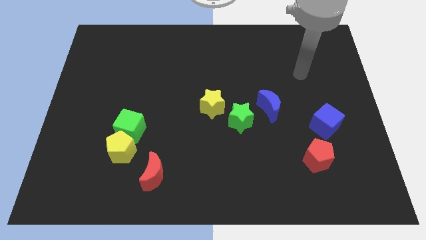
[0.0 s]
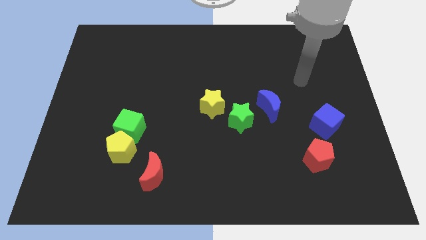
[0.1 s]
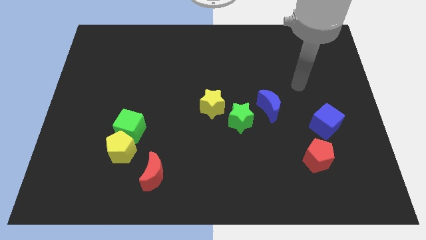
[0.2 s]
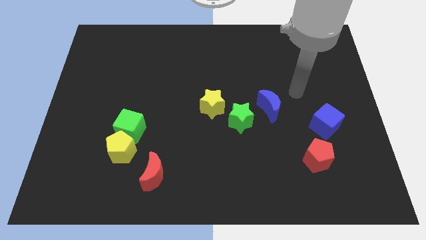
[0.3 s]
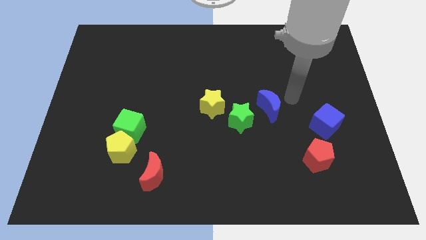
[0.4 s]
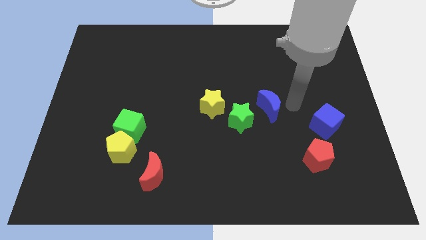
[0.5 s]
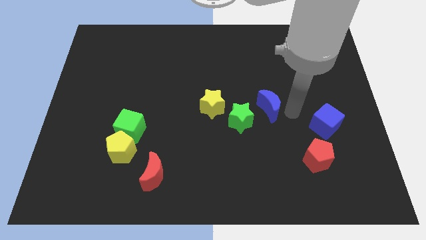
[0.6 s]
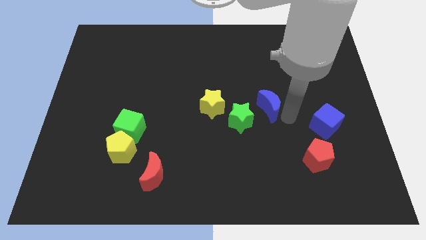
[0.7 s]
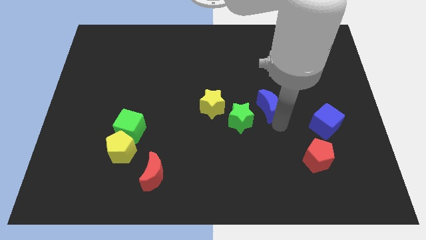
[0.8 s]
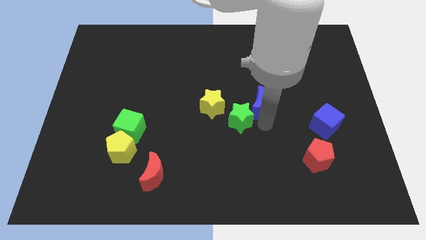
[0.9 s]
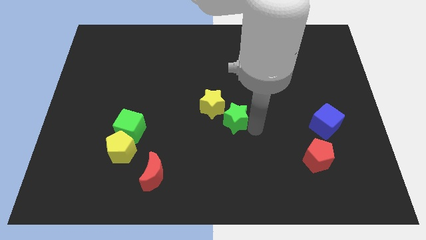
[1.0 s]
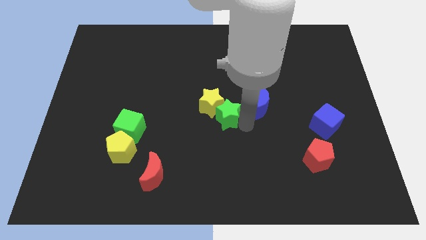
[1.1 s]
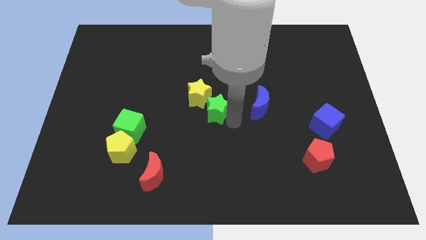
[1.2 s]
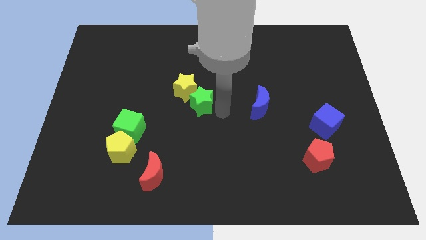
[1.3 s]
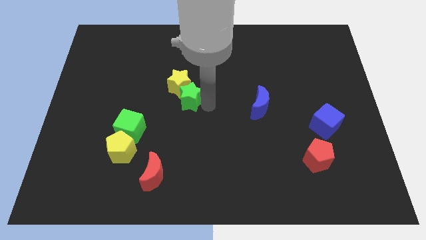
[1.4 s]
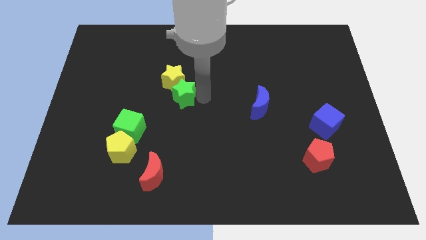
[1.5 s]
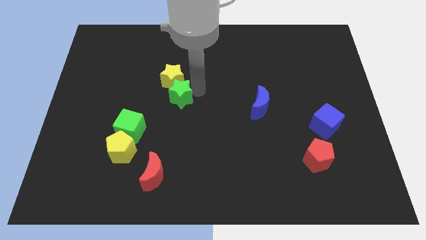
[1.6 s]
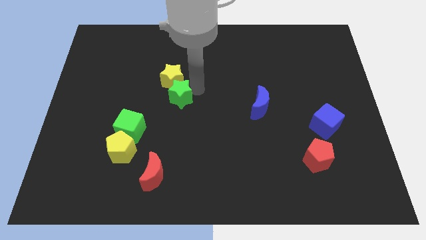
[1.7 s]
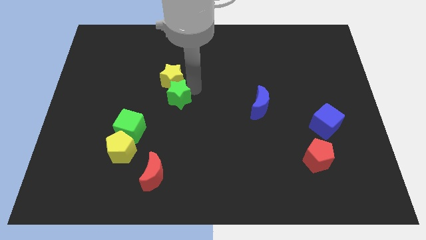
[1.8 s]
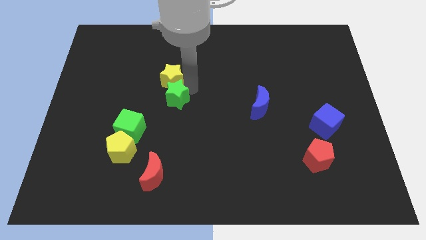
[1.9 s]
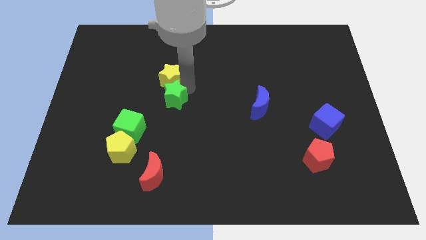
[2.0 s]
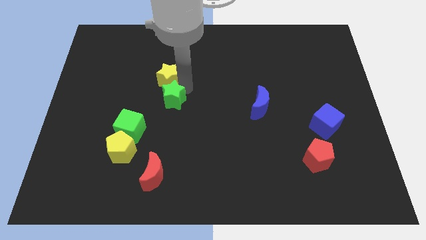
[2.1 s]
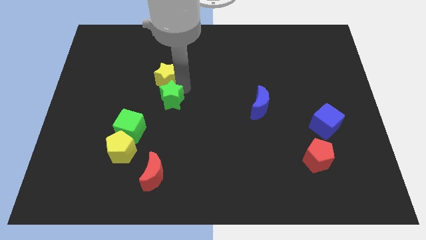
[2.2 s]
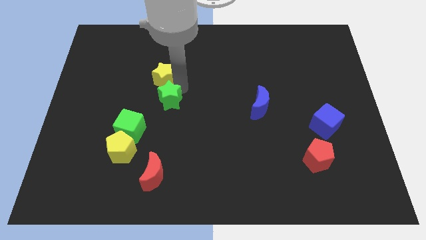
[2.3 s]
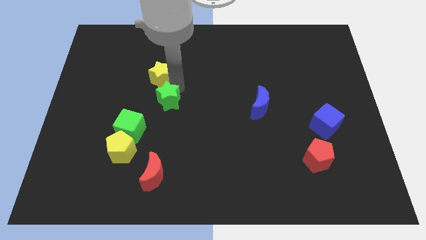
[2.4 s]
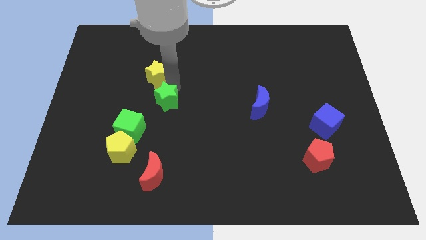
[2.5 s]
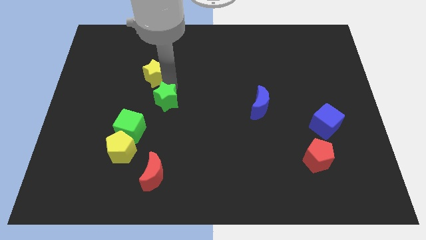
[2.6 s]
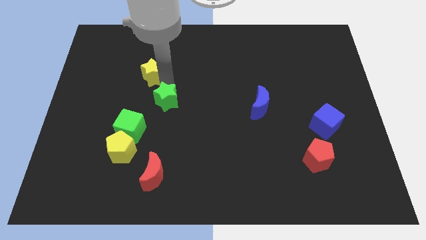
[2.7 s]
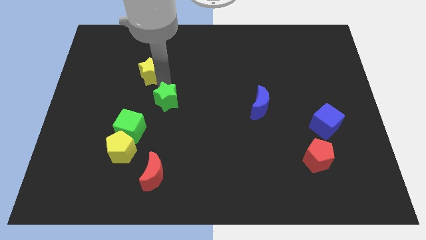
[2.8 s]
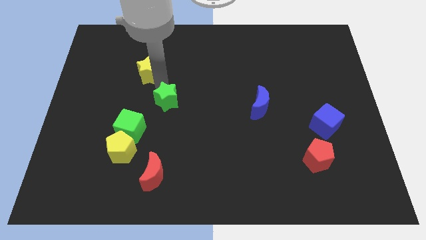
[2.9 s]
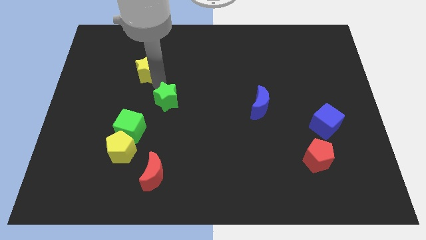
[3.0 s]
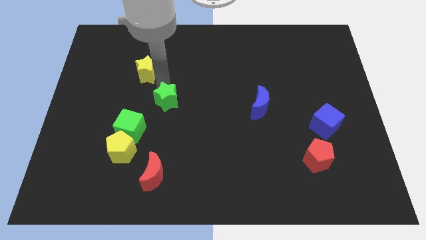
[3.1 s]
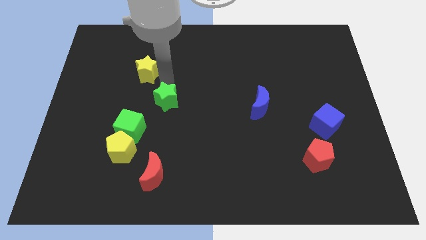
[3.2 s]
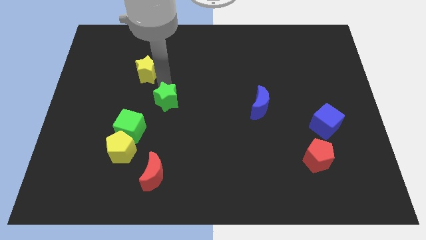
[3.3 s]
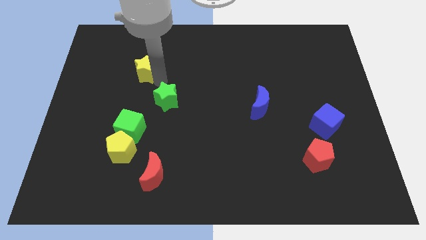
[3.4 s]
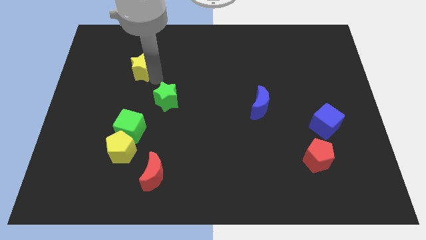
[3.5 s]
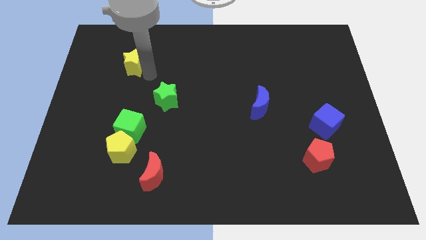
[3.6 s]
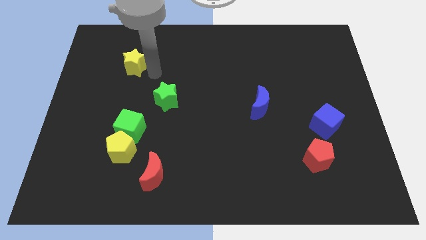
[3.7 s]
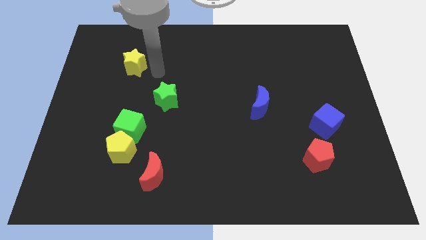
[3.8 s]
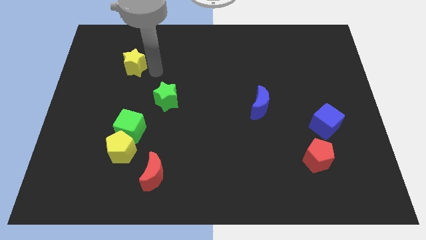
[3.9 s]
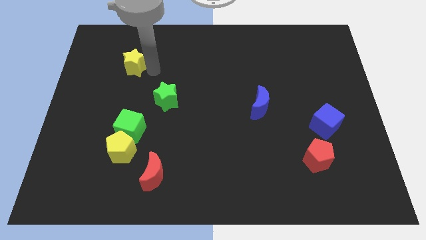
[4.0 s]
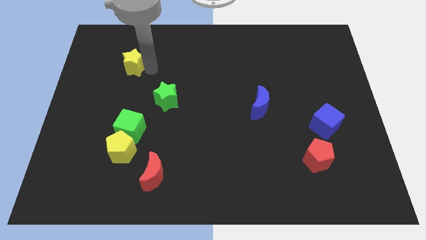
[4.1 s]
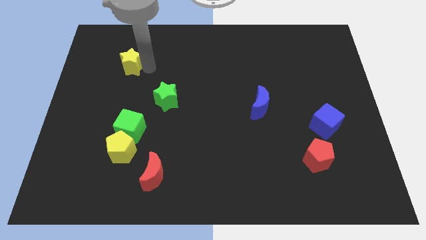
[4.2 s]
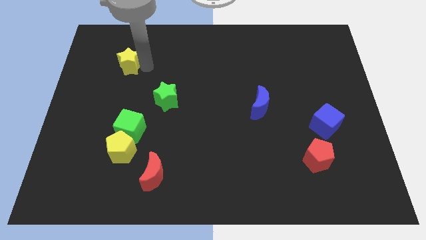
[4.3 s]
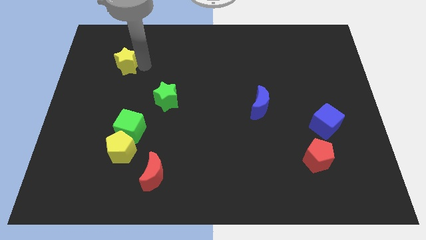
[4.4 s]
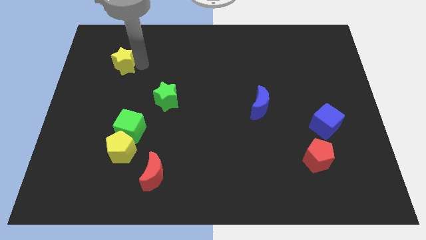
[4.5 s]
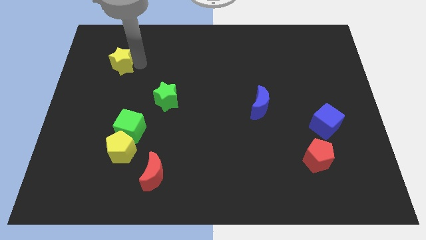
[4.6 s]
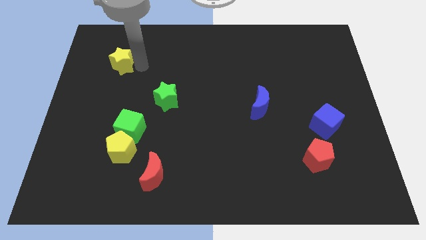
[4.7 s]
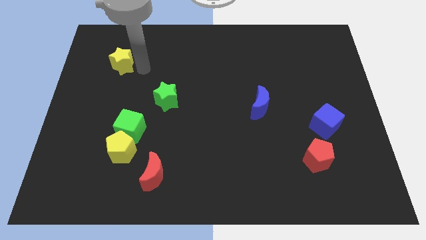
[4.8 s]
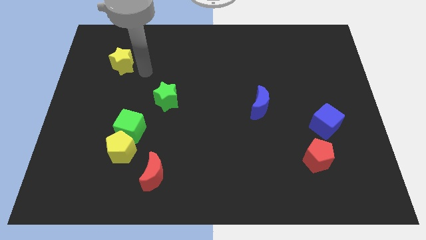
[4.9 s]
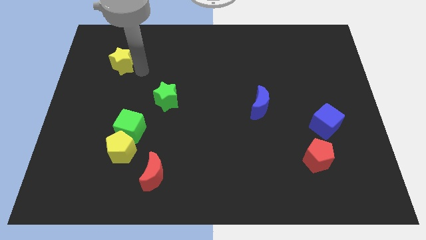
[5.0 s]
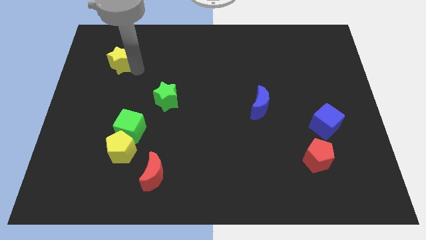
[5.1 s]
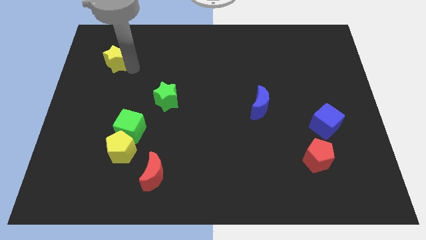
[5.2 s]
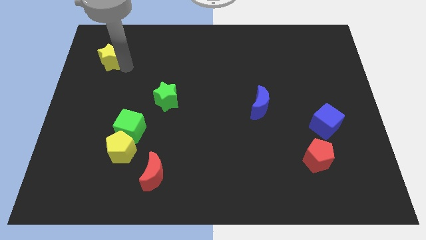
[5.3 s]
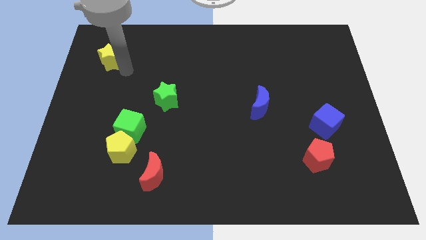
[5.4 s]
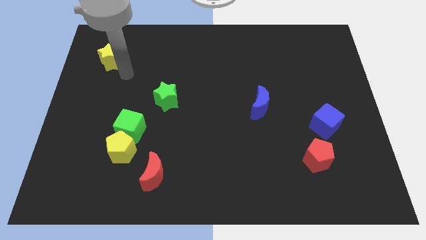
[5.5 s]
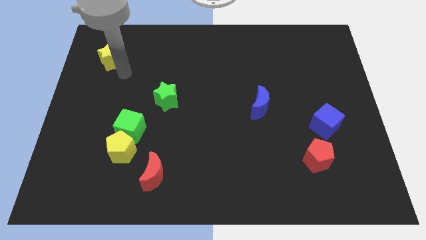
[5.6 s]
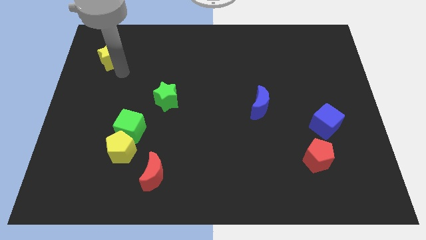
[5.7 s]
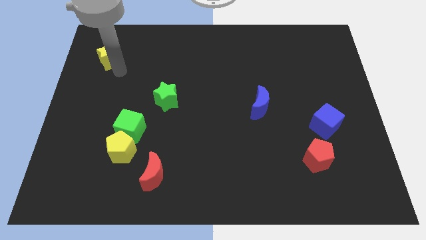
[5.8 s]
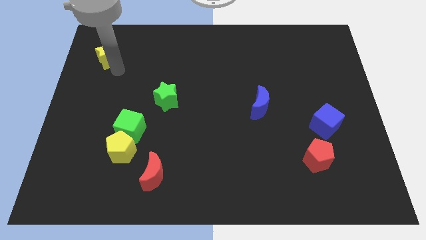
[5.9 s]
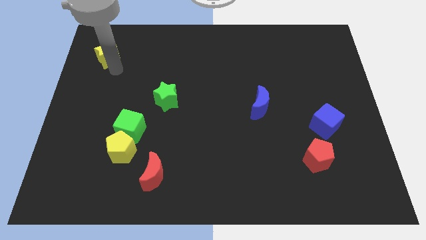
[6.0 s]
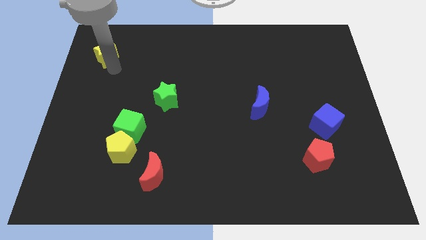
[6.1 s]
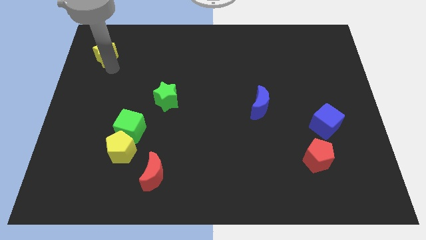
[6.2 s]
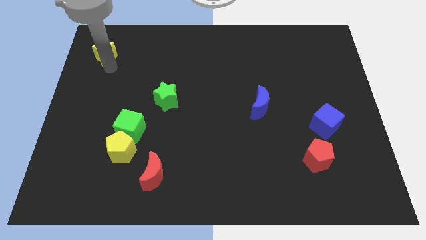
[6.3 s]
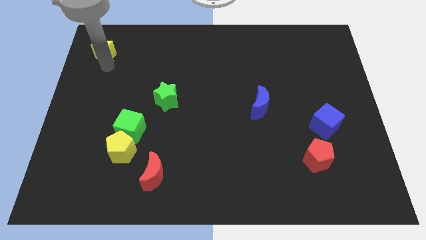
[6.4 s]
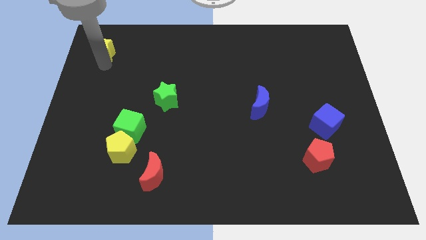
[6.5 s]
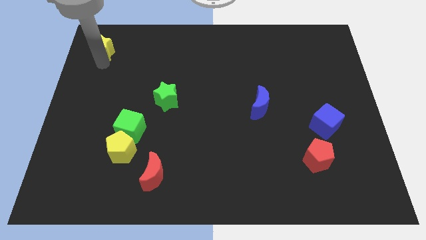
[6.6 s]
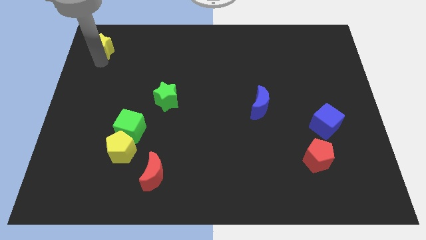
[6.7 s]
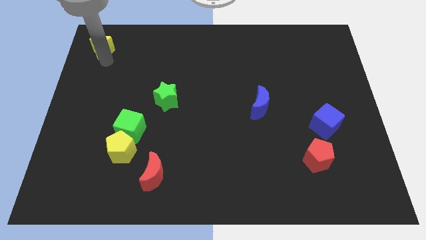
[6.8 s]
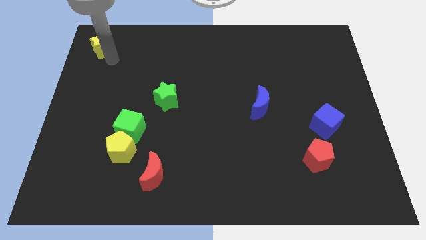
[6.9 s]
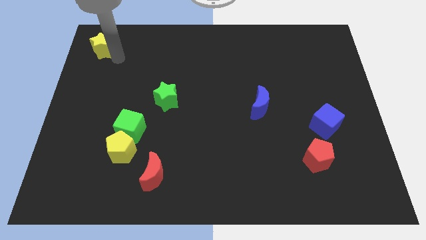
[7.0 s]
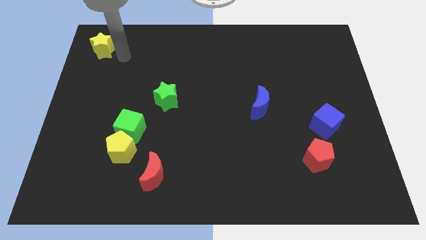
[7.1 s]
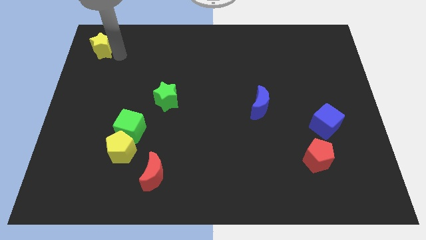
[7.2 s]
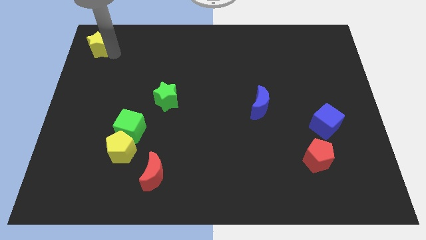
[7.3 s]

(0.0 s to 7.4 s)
push the yellow star to the top left

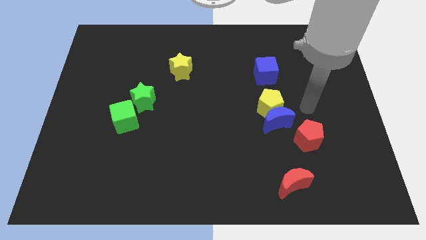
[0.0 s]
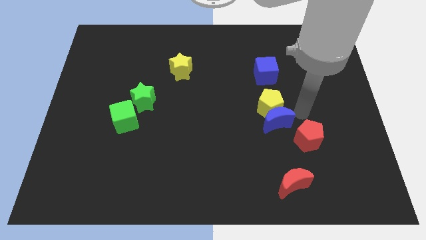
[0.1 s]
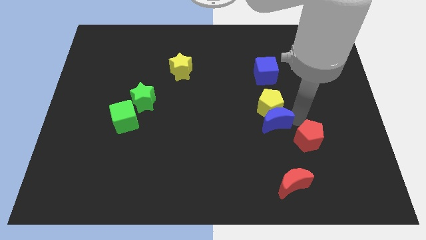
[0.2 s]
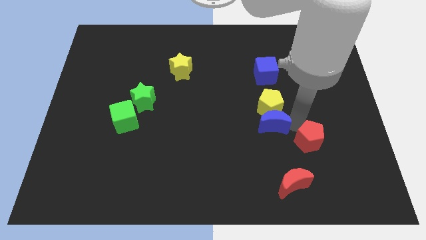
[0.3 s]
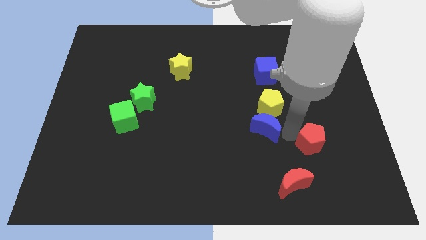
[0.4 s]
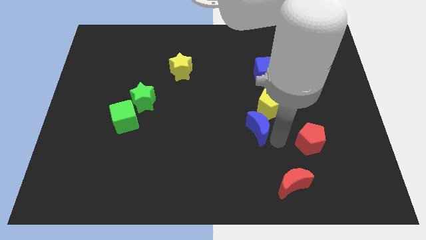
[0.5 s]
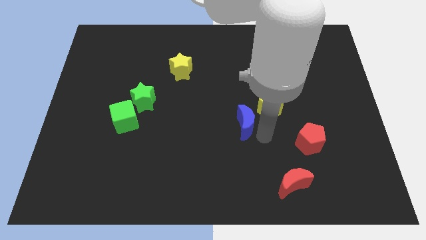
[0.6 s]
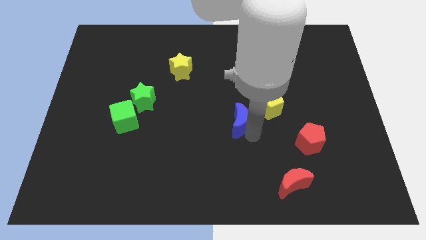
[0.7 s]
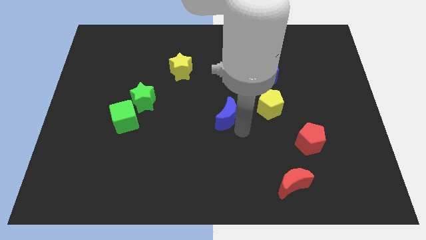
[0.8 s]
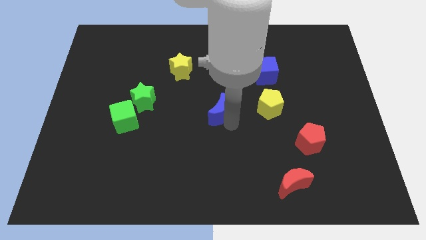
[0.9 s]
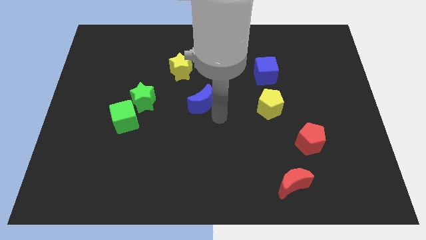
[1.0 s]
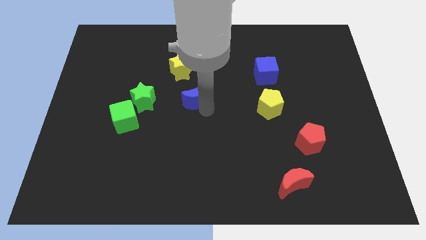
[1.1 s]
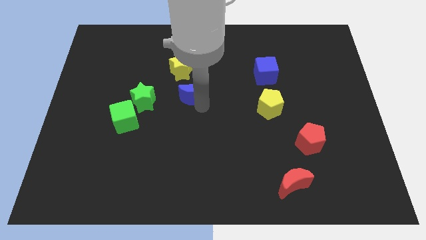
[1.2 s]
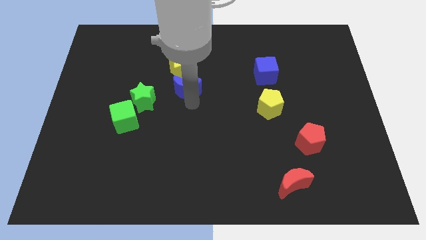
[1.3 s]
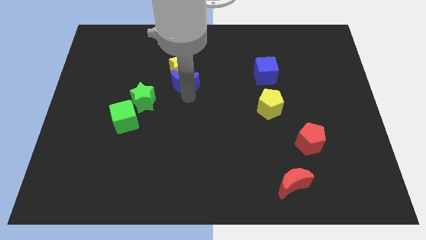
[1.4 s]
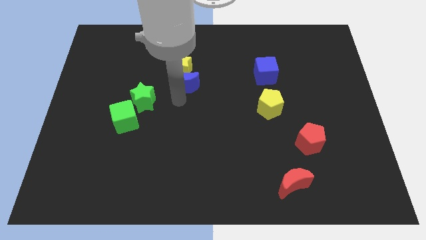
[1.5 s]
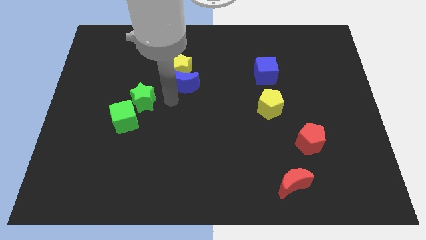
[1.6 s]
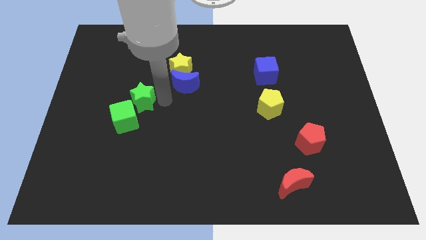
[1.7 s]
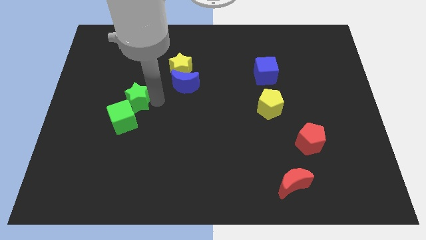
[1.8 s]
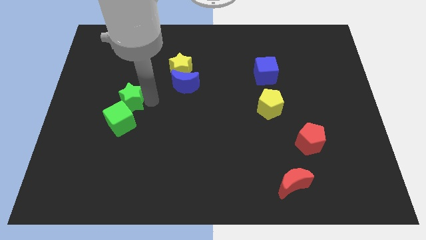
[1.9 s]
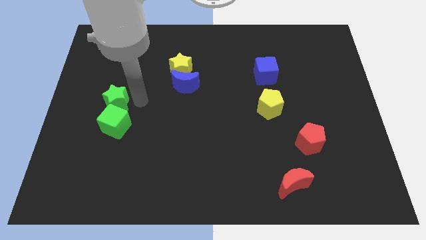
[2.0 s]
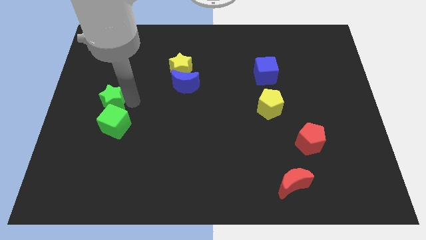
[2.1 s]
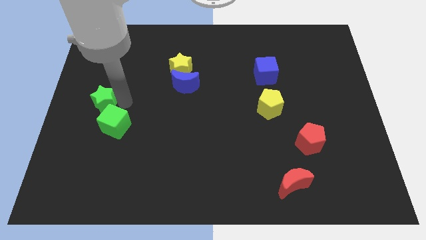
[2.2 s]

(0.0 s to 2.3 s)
put the green star to the left side
